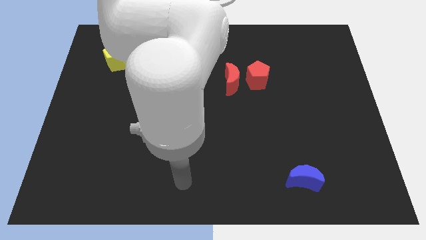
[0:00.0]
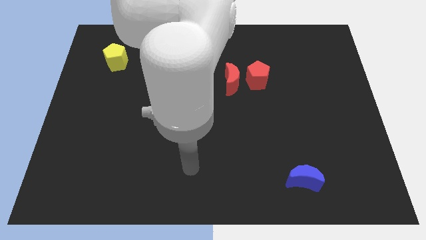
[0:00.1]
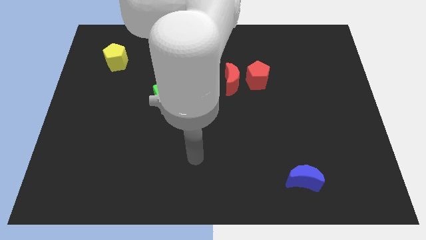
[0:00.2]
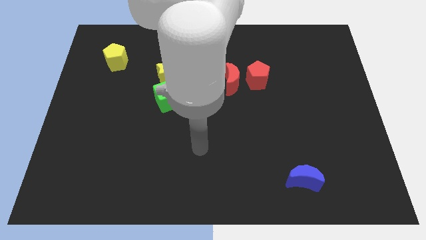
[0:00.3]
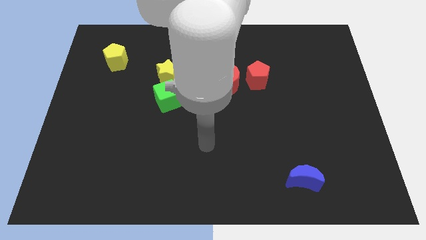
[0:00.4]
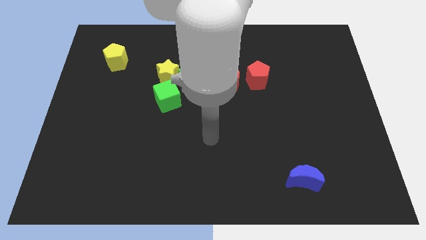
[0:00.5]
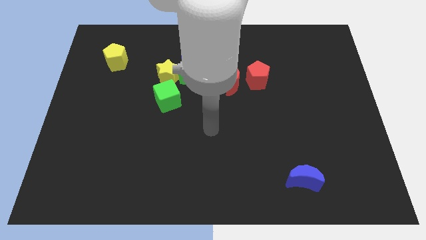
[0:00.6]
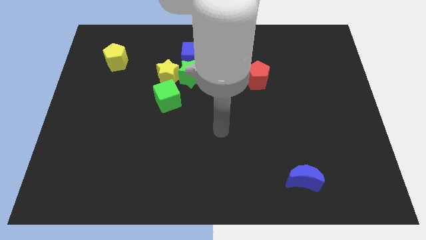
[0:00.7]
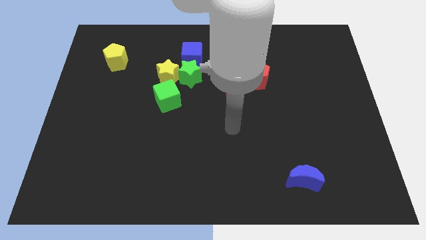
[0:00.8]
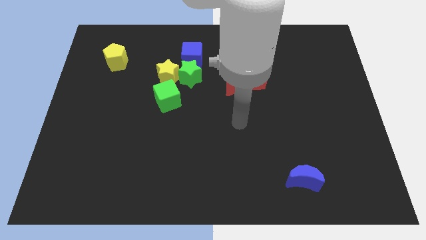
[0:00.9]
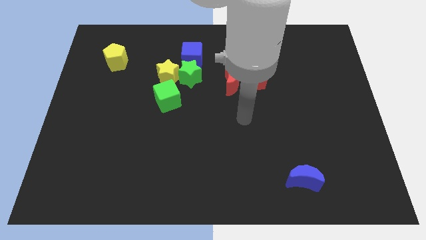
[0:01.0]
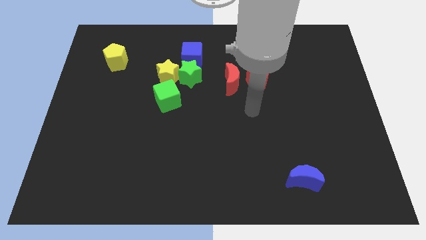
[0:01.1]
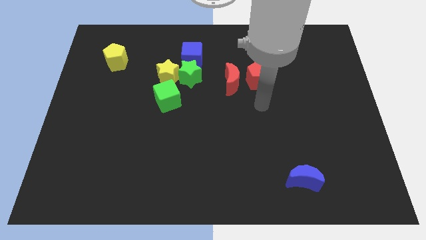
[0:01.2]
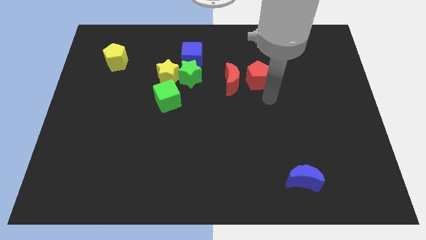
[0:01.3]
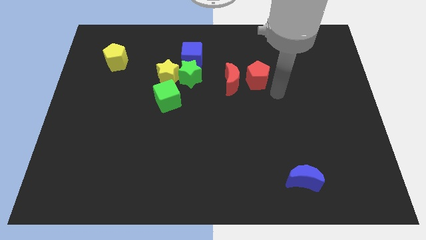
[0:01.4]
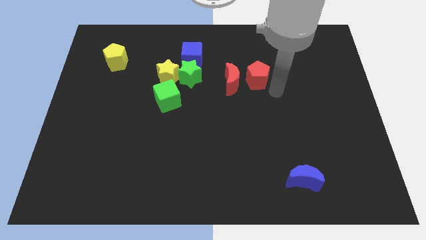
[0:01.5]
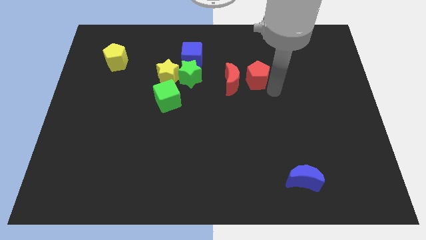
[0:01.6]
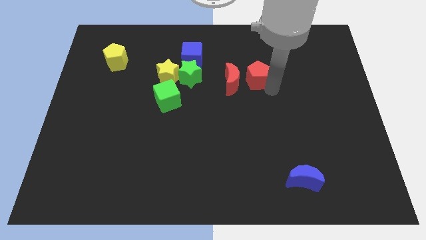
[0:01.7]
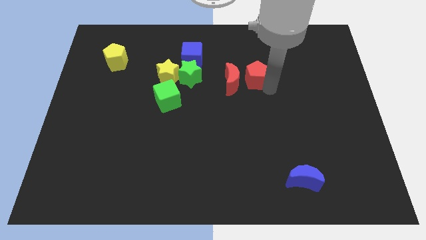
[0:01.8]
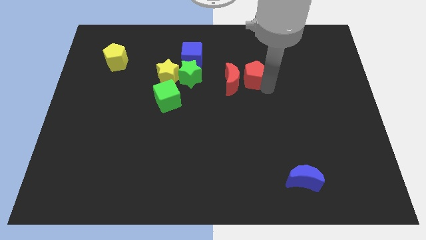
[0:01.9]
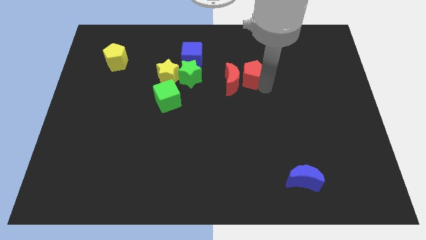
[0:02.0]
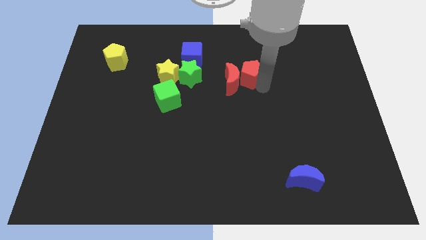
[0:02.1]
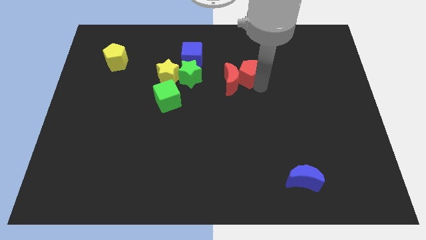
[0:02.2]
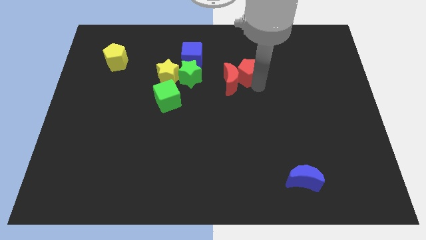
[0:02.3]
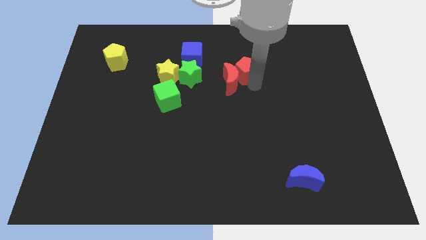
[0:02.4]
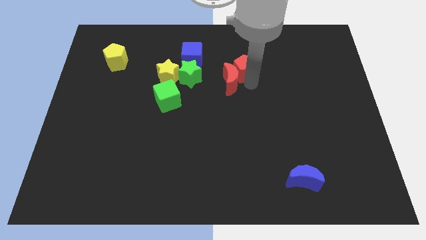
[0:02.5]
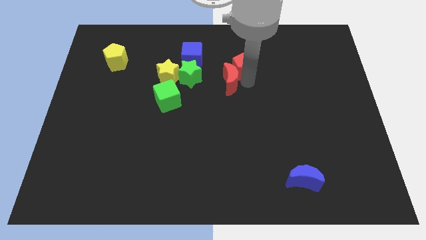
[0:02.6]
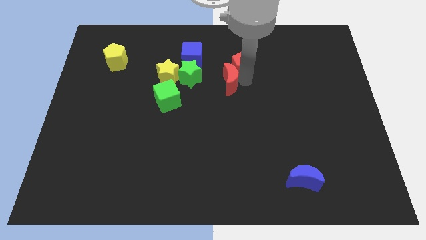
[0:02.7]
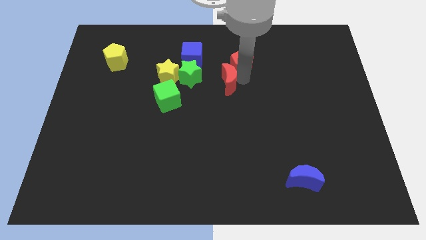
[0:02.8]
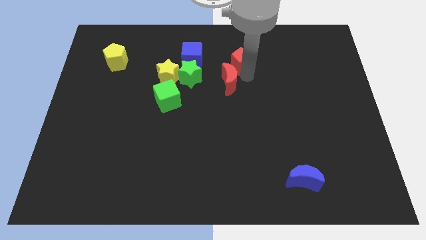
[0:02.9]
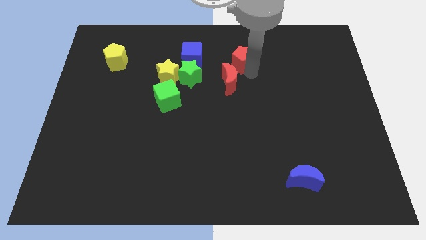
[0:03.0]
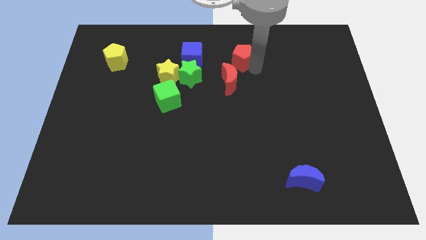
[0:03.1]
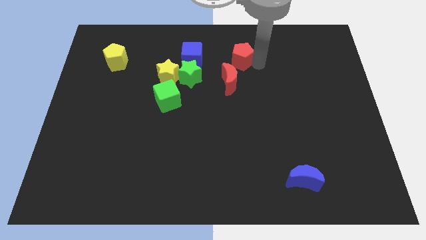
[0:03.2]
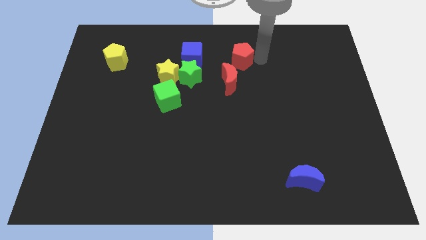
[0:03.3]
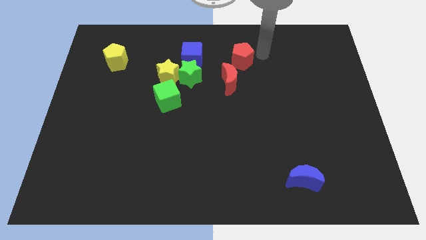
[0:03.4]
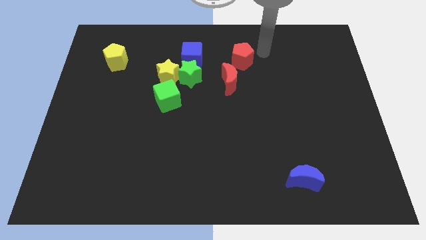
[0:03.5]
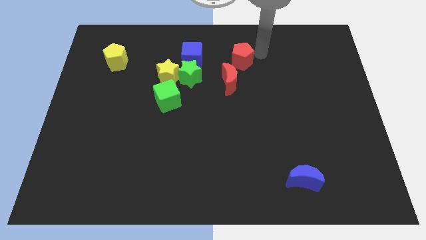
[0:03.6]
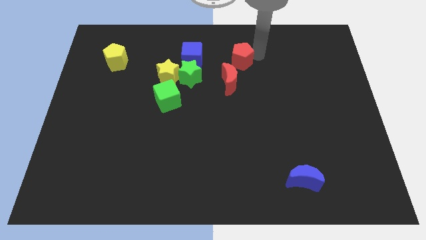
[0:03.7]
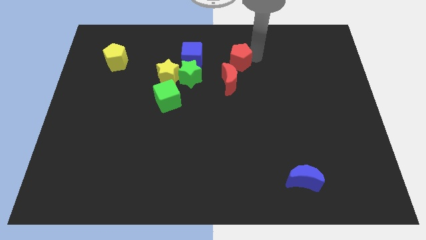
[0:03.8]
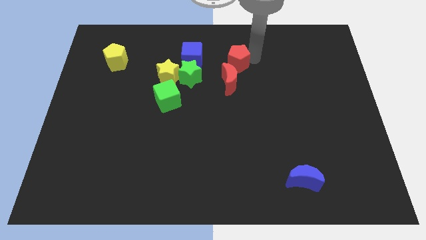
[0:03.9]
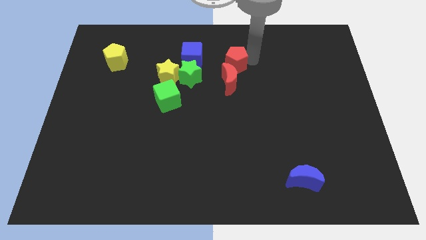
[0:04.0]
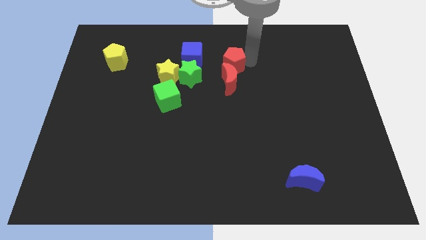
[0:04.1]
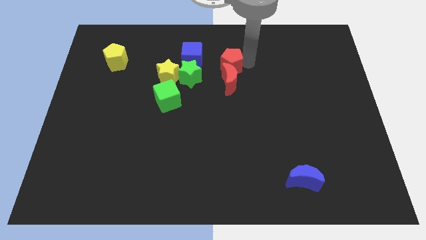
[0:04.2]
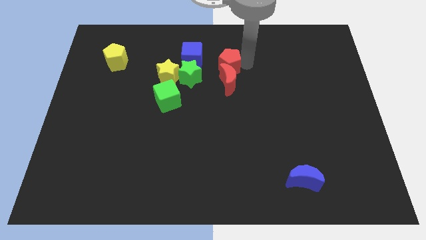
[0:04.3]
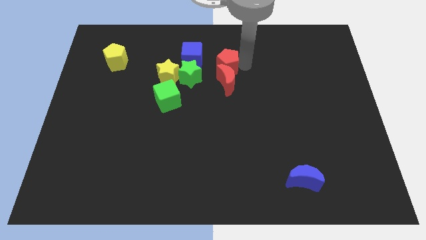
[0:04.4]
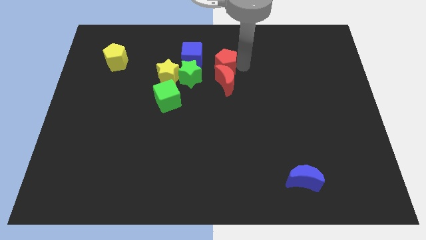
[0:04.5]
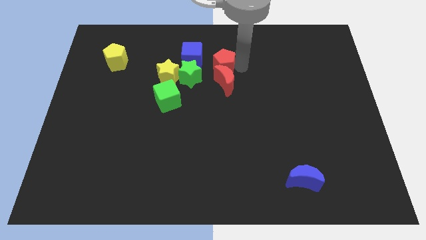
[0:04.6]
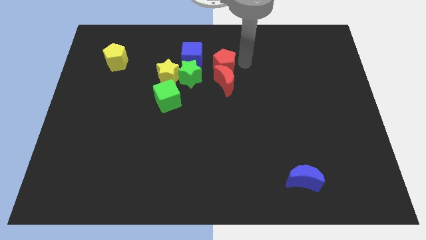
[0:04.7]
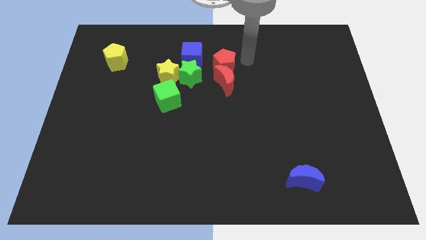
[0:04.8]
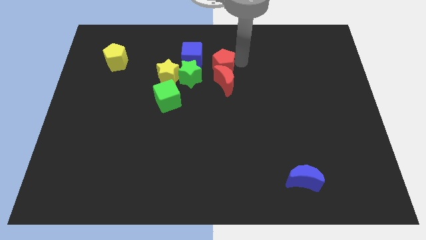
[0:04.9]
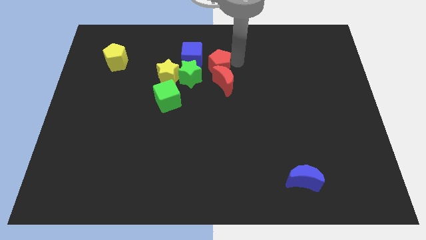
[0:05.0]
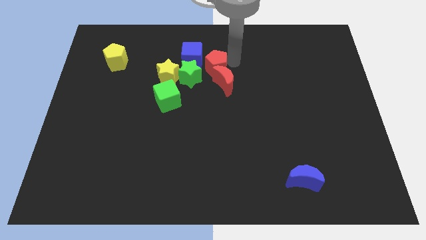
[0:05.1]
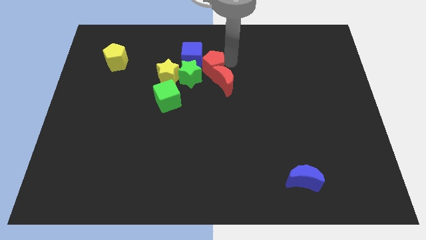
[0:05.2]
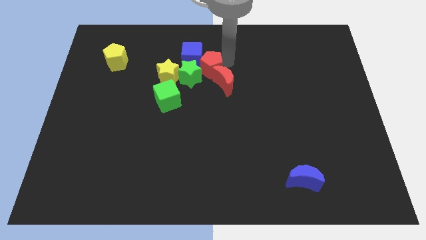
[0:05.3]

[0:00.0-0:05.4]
slide the red pentagon towards the green star

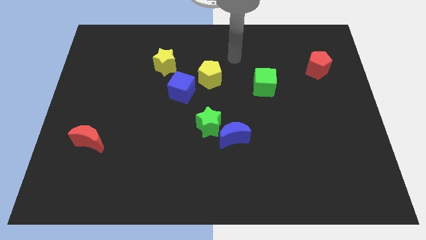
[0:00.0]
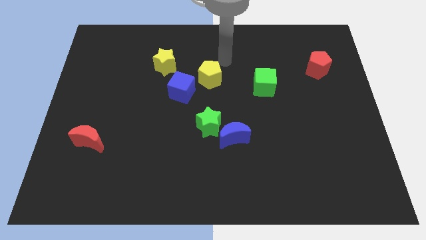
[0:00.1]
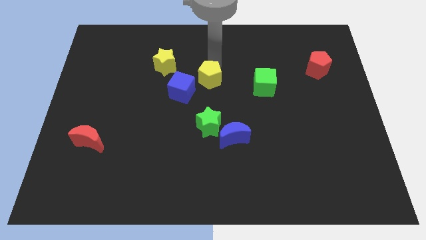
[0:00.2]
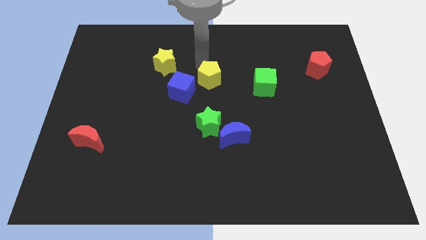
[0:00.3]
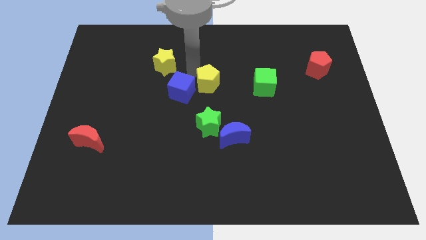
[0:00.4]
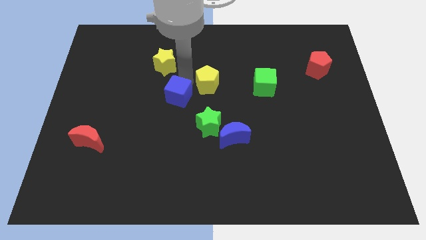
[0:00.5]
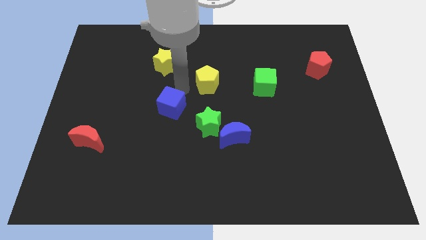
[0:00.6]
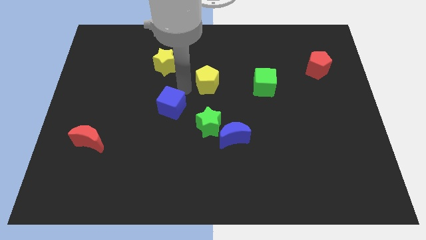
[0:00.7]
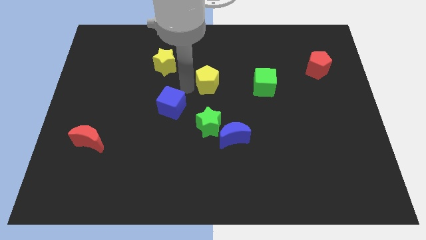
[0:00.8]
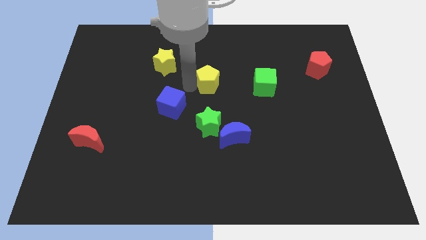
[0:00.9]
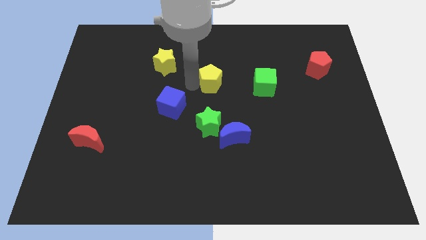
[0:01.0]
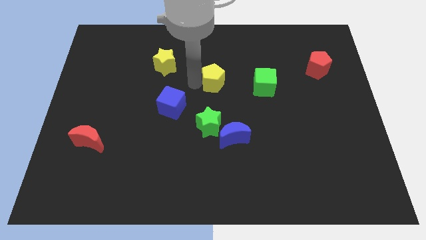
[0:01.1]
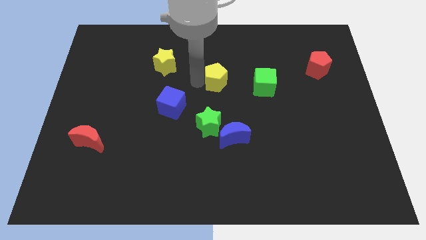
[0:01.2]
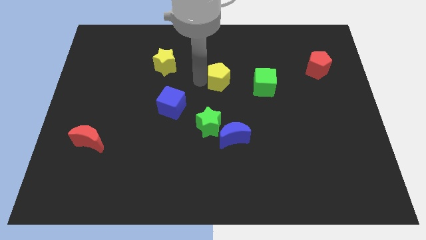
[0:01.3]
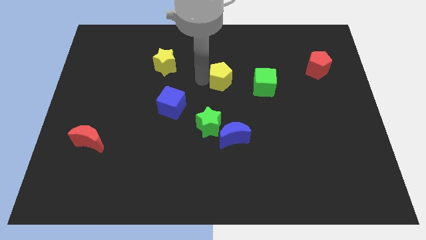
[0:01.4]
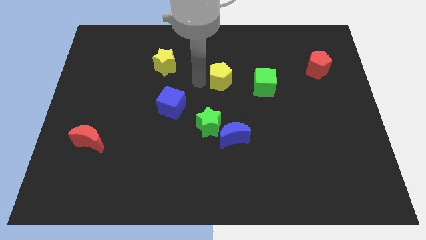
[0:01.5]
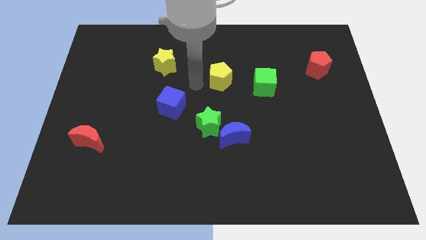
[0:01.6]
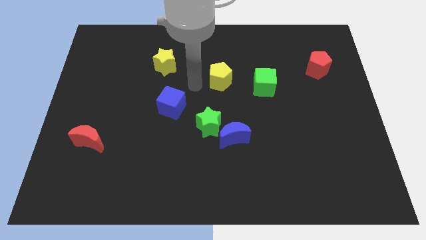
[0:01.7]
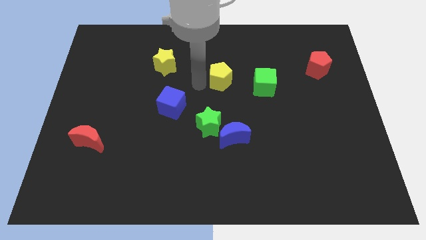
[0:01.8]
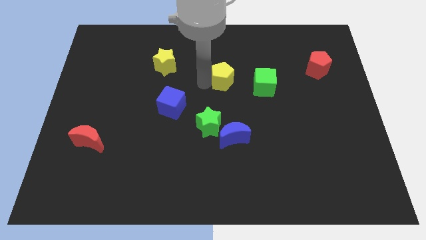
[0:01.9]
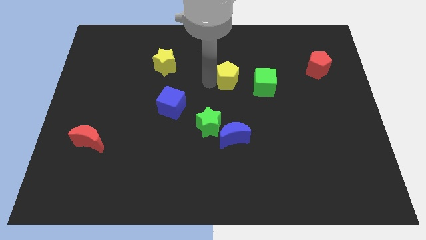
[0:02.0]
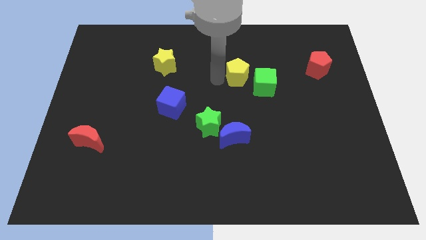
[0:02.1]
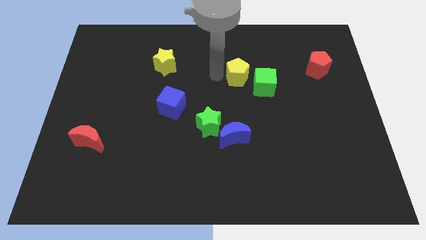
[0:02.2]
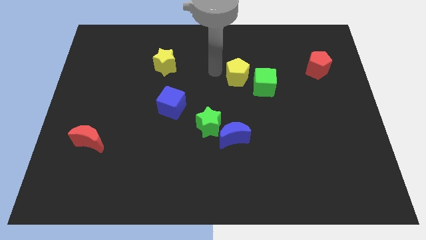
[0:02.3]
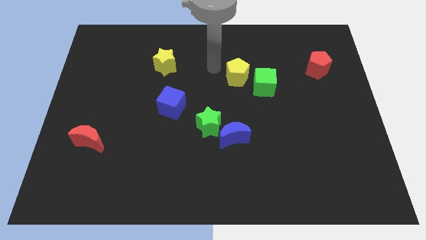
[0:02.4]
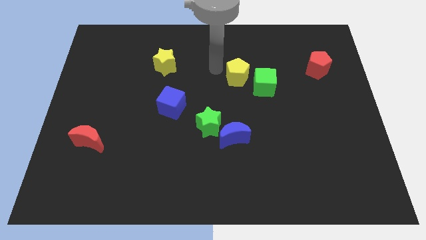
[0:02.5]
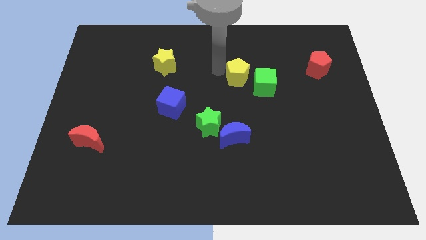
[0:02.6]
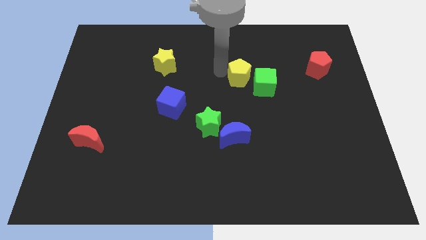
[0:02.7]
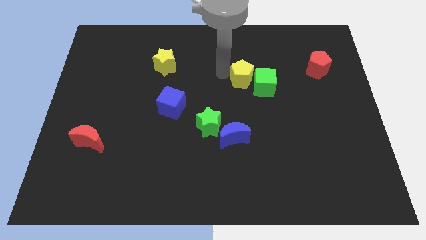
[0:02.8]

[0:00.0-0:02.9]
push the yellow pentagon next to the green cube

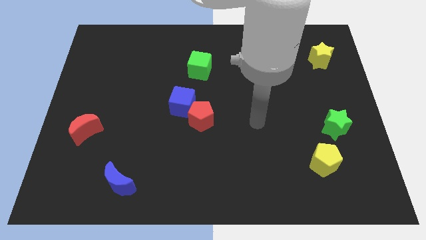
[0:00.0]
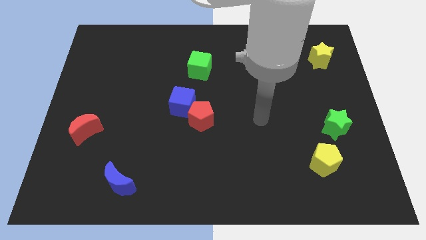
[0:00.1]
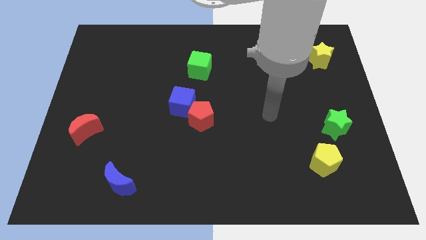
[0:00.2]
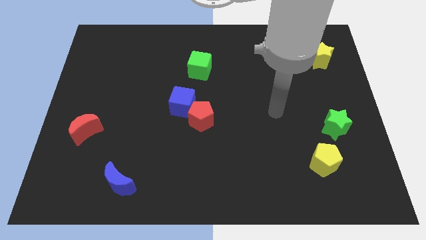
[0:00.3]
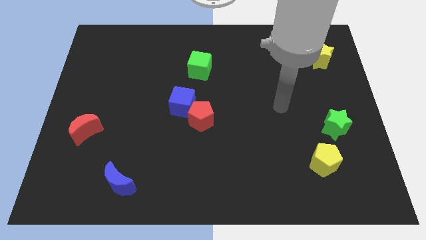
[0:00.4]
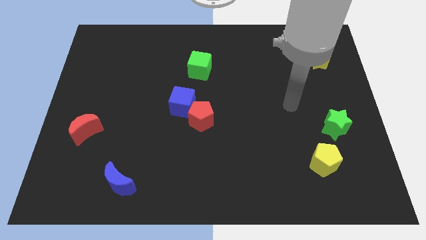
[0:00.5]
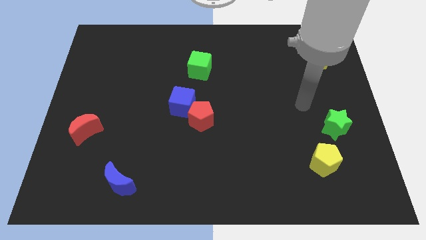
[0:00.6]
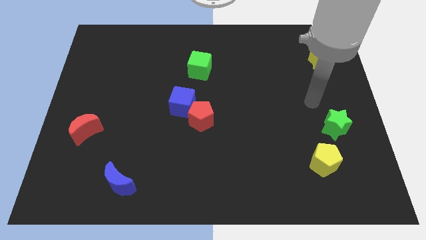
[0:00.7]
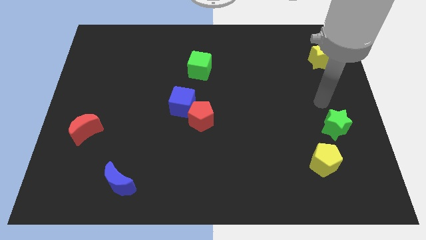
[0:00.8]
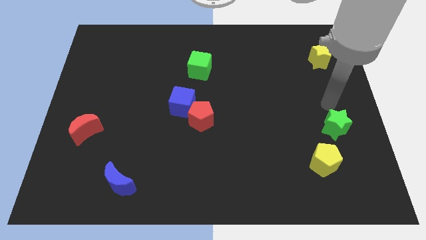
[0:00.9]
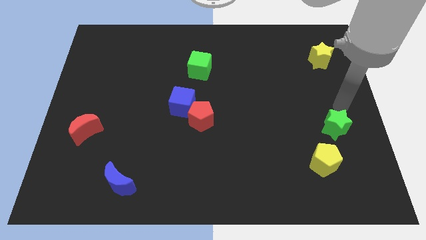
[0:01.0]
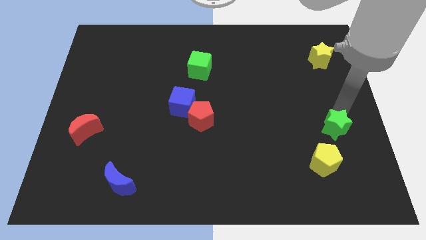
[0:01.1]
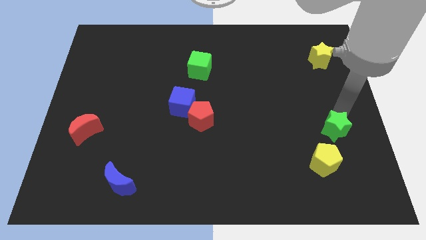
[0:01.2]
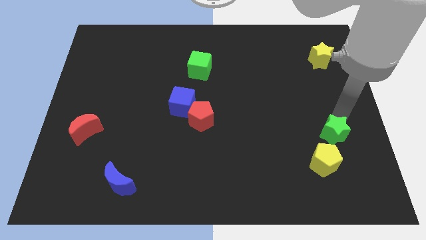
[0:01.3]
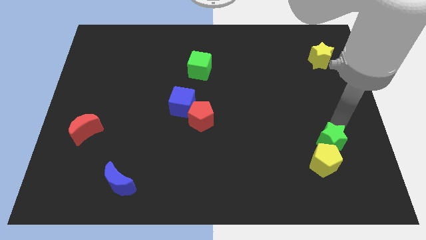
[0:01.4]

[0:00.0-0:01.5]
slide the green star to the yellow pentagon
